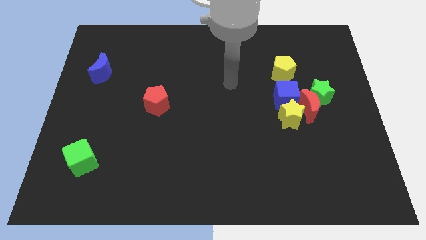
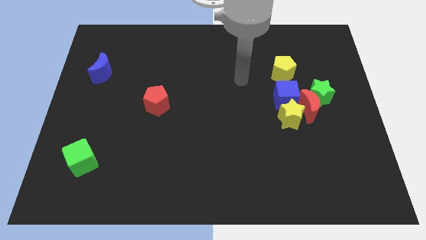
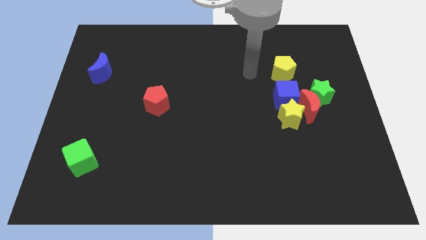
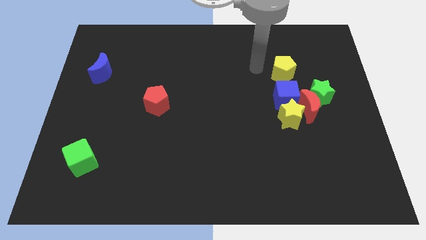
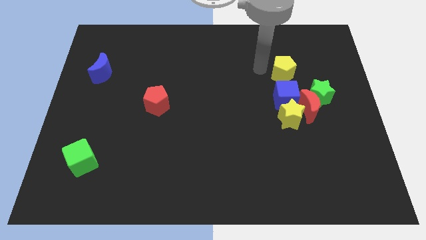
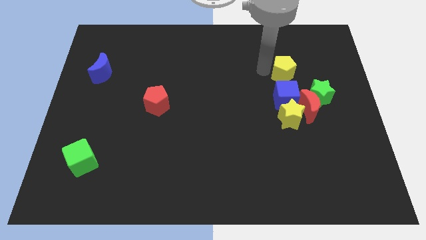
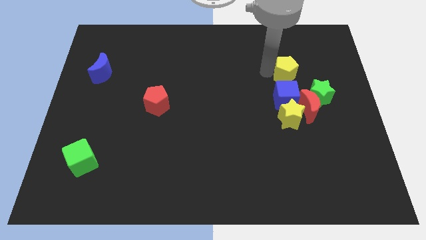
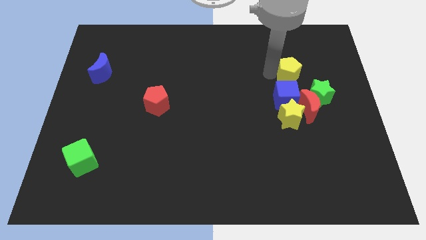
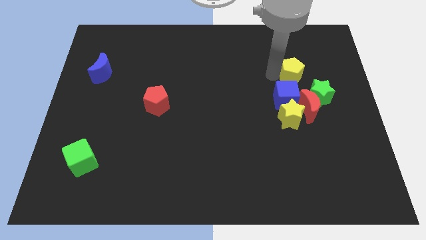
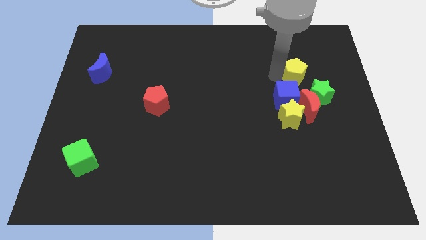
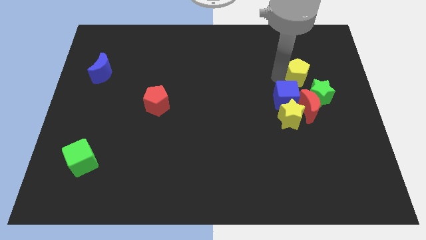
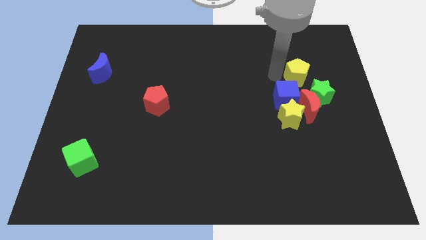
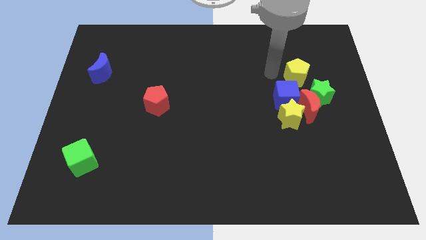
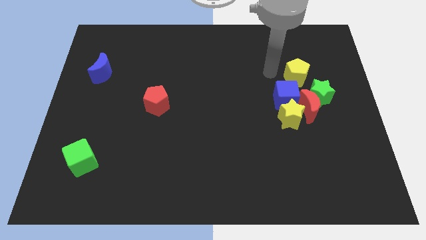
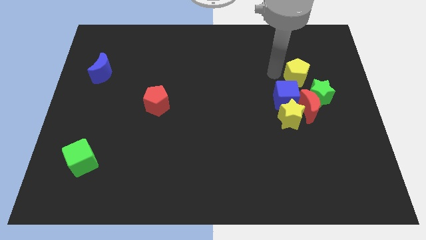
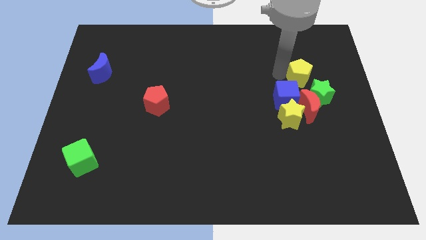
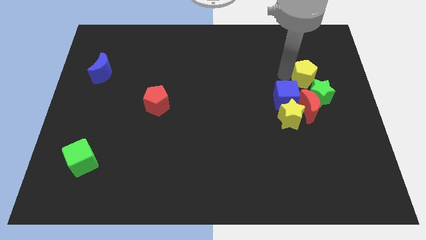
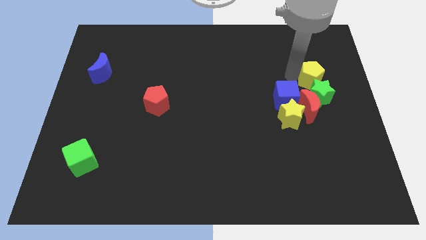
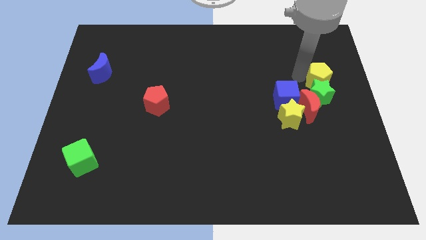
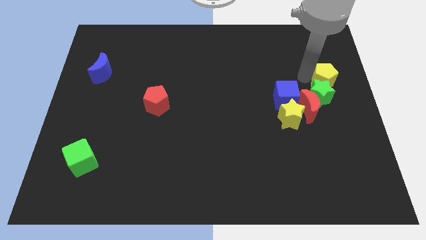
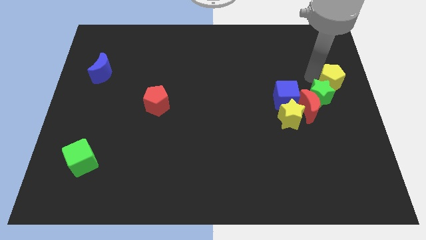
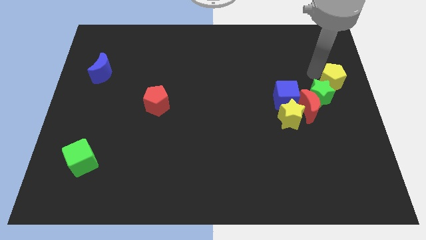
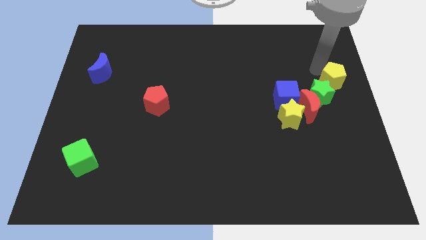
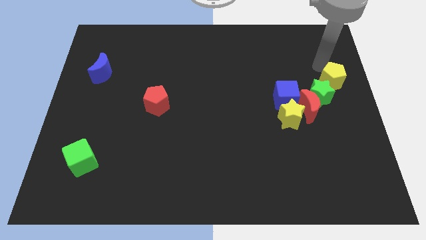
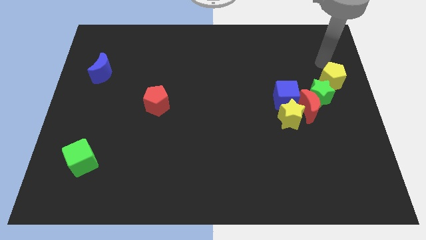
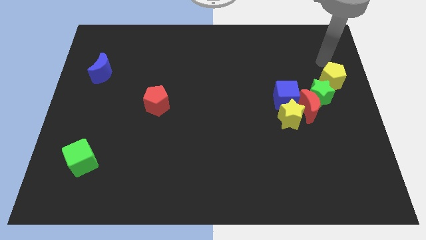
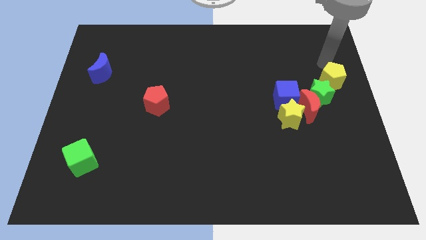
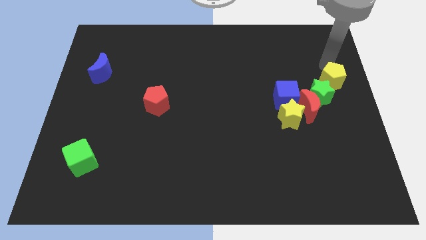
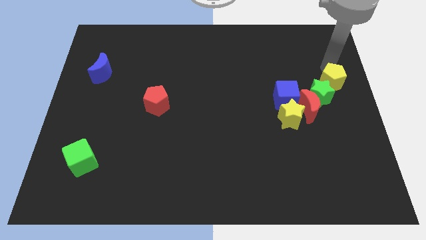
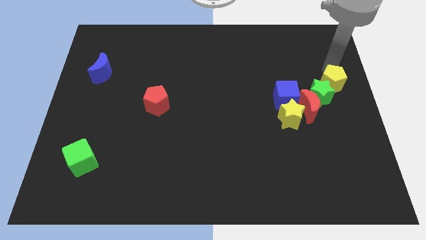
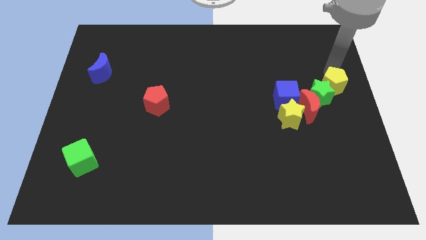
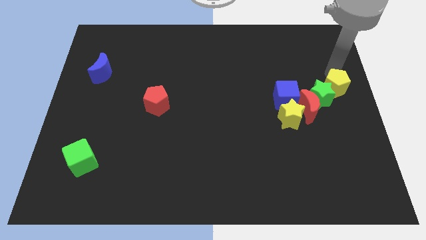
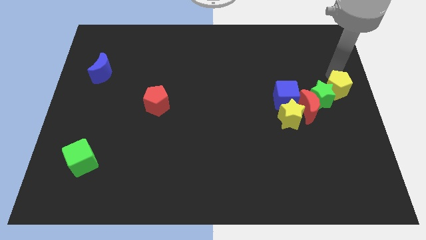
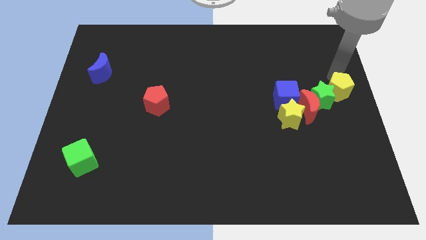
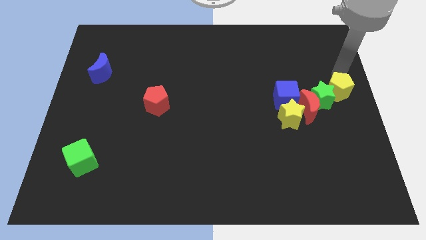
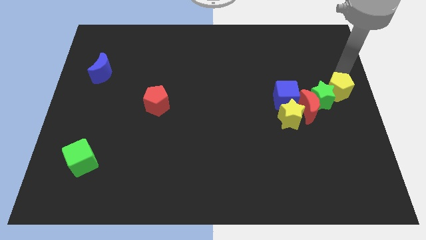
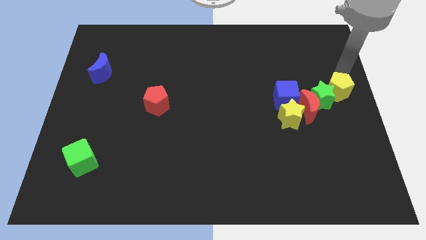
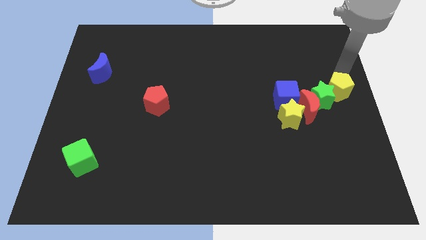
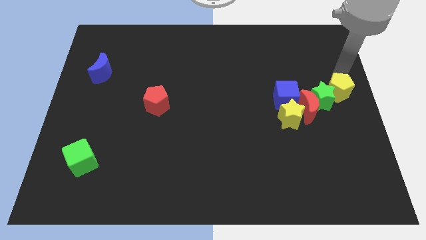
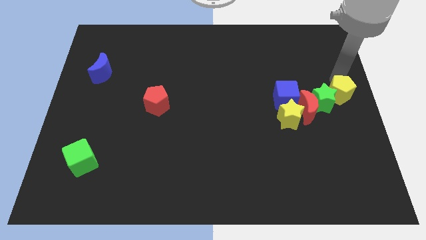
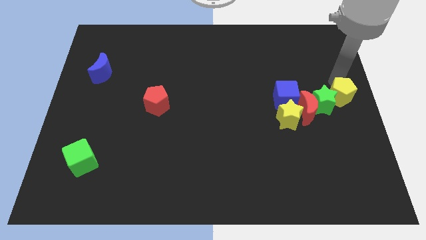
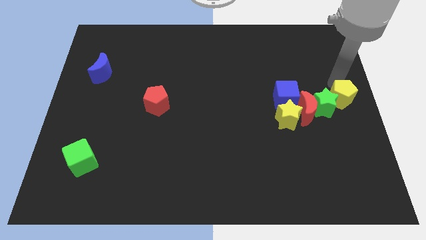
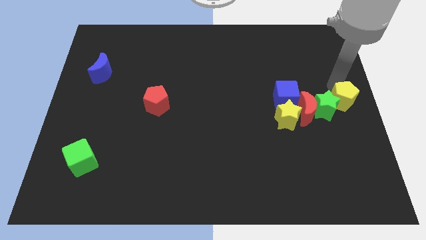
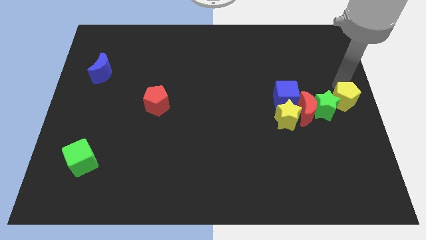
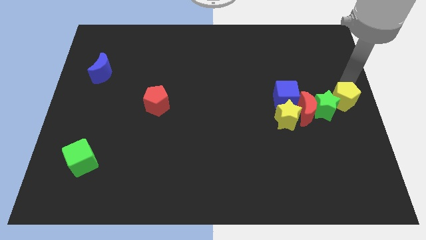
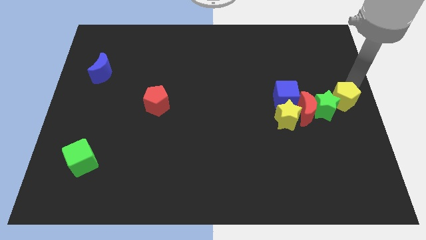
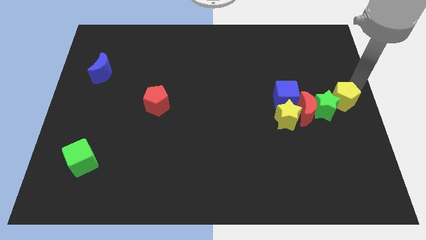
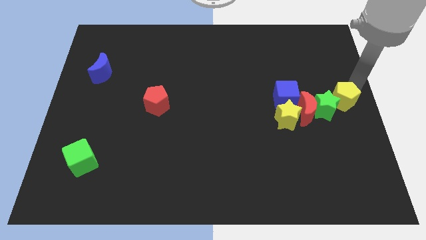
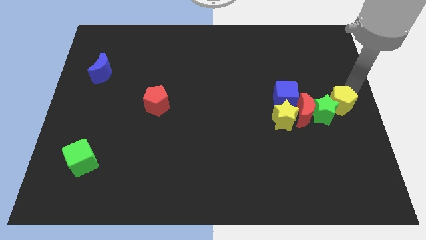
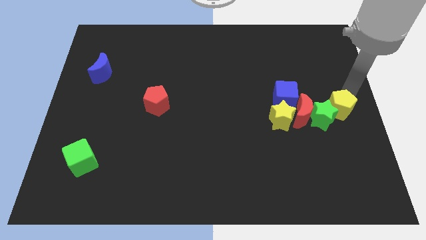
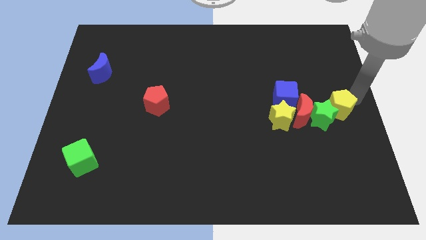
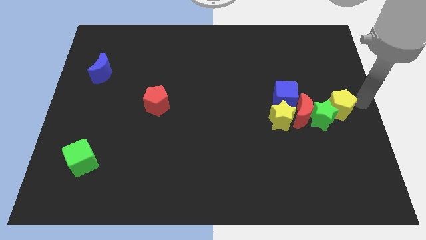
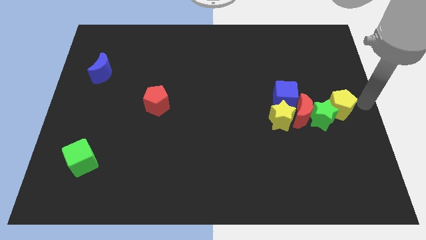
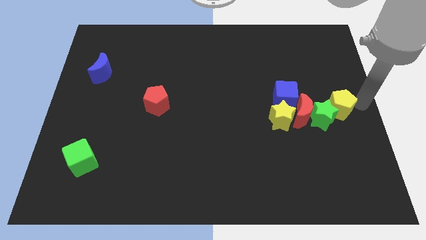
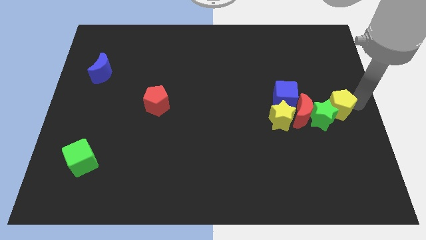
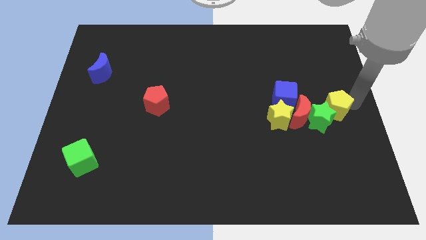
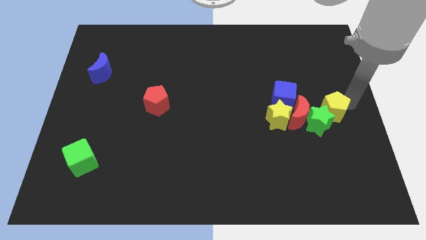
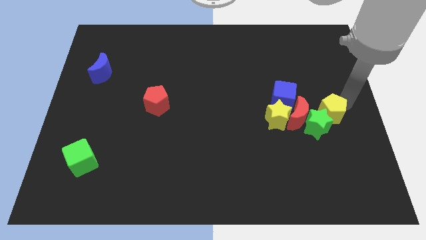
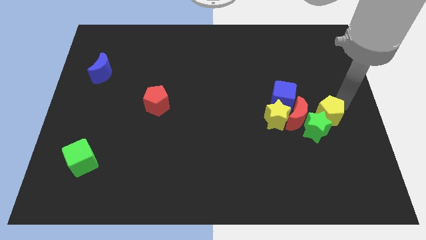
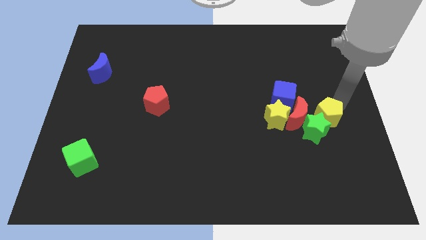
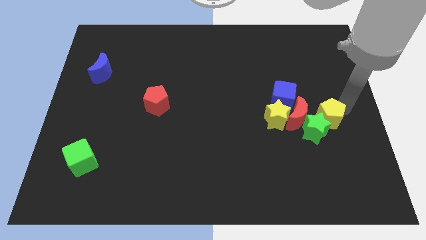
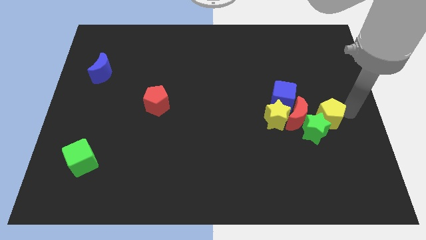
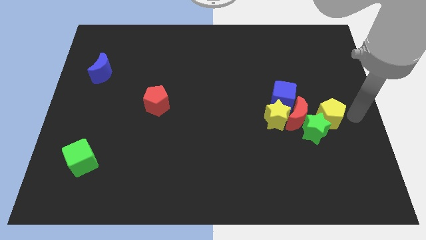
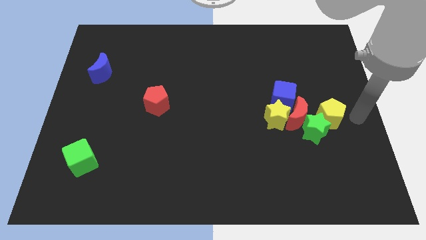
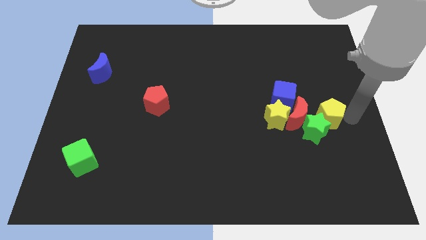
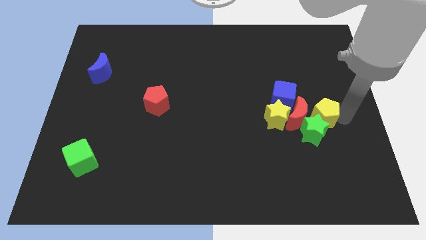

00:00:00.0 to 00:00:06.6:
put the yellow pentagon to the red moon

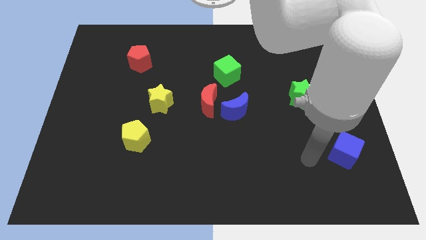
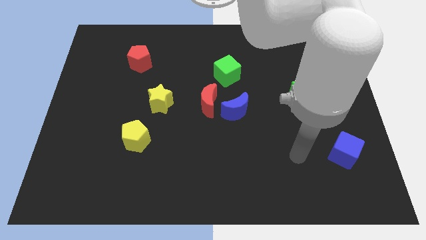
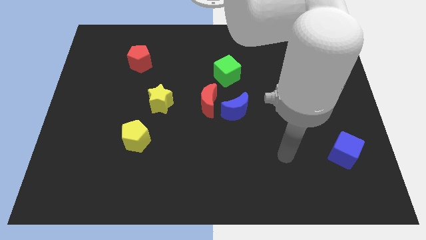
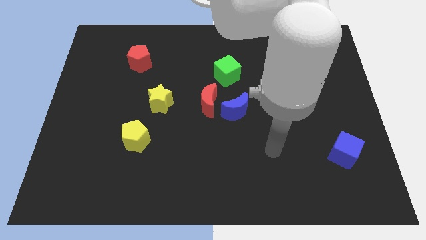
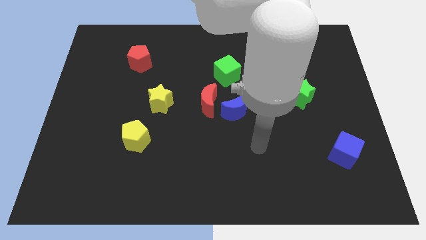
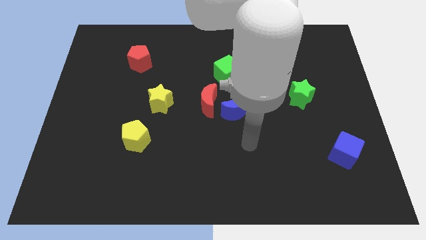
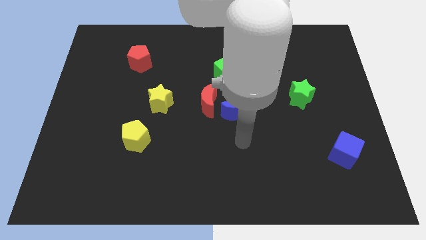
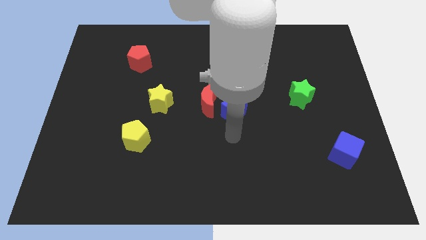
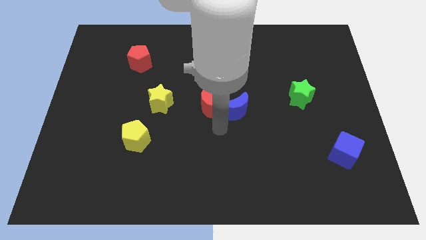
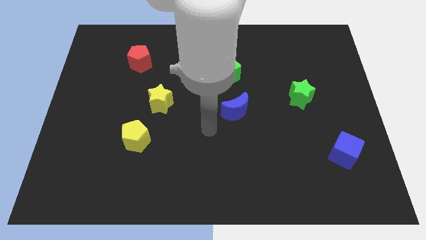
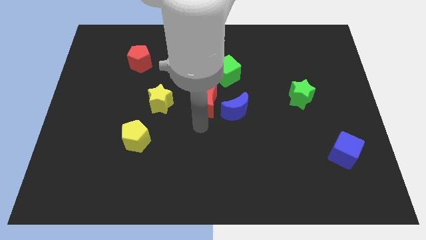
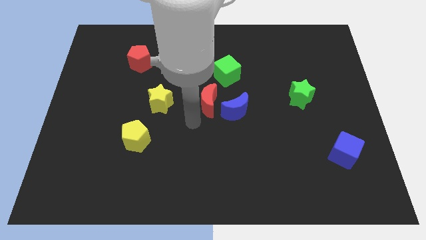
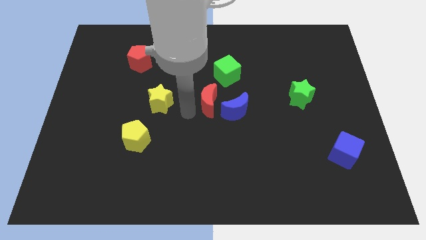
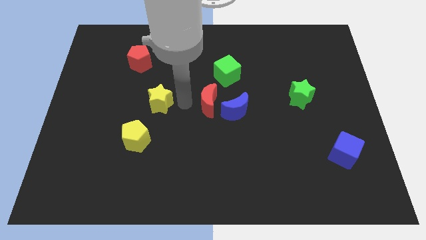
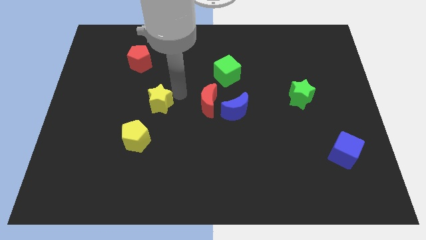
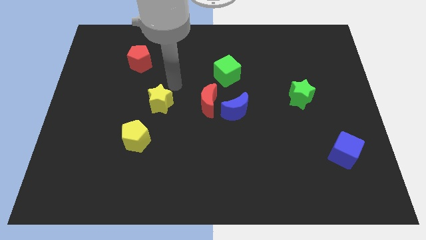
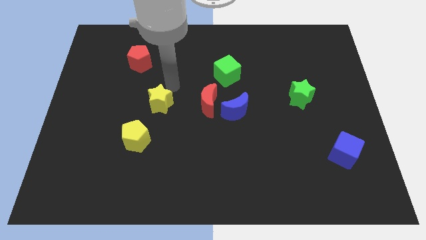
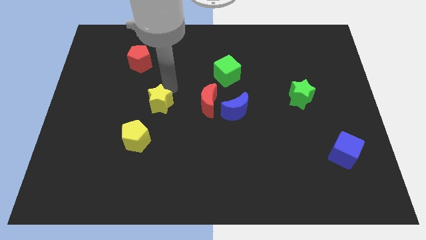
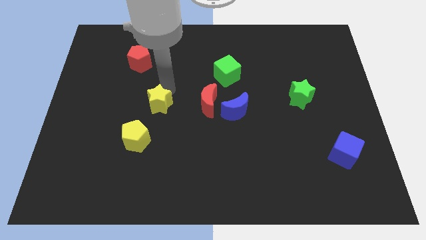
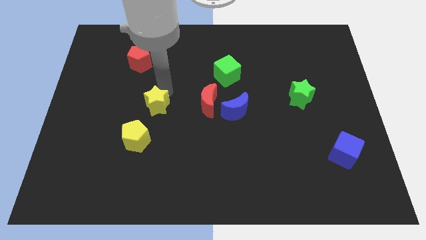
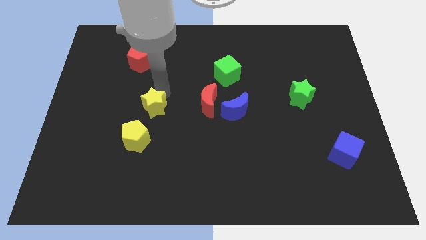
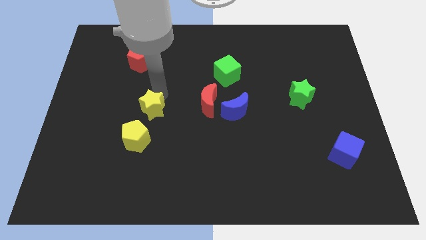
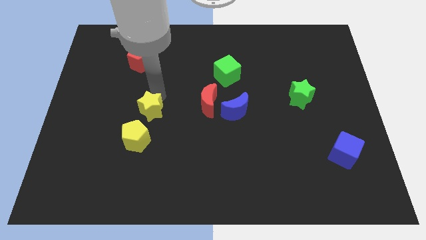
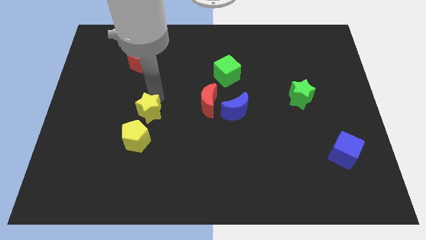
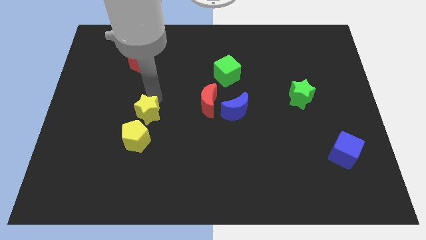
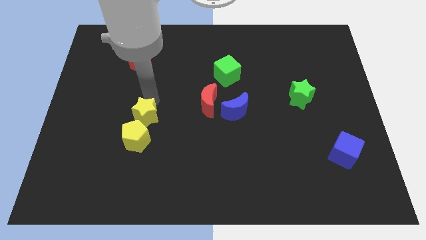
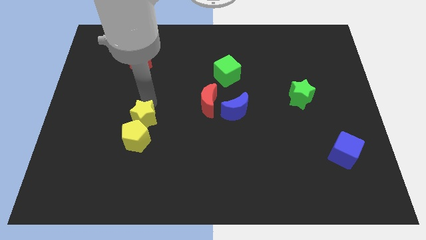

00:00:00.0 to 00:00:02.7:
slide the yellow star towards the yellow pentagon
